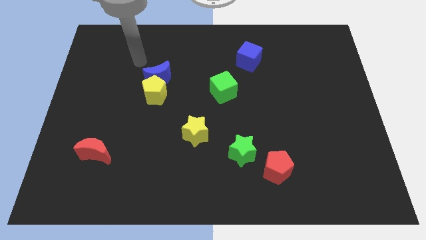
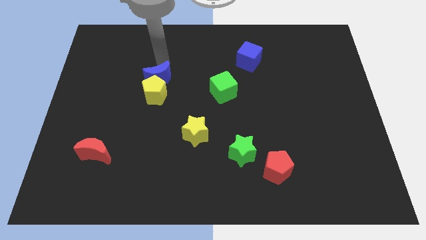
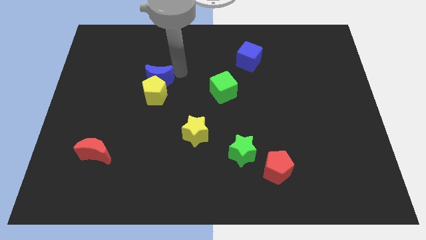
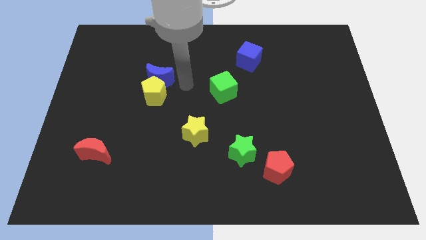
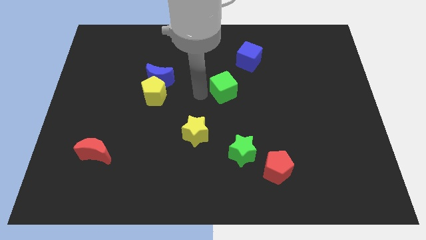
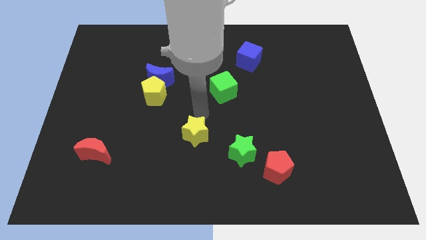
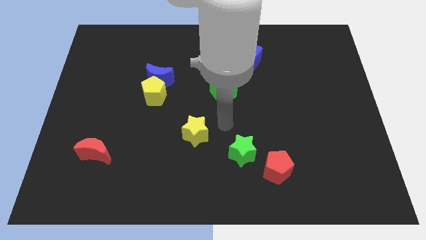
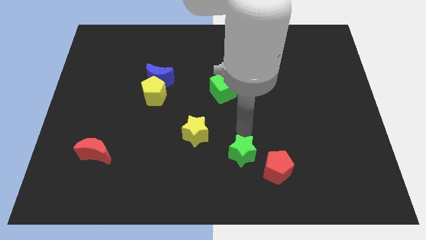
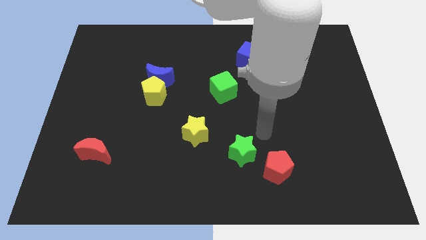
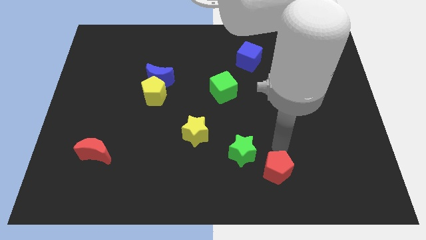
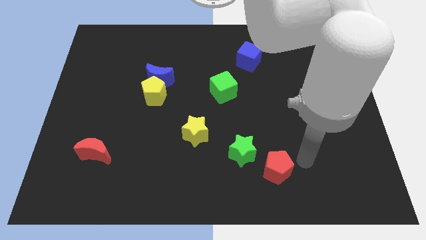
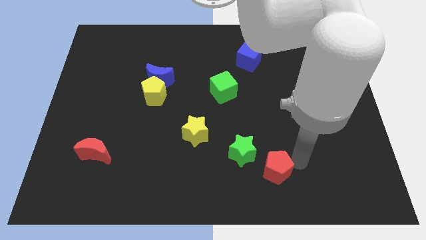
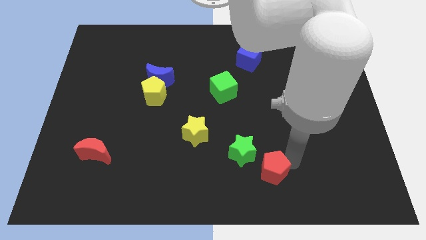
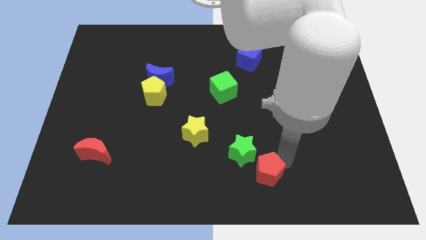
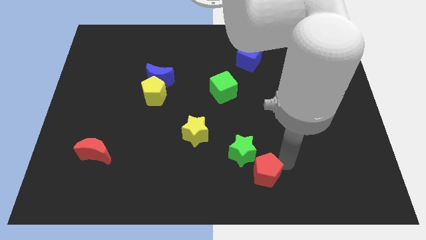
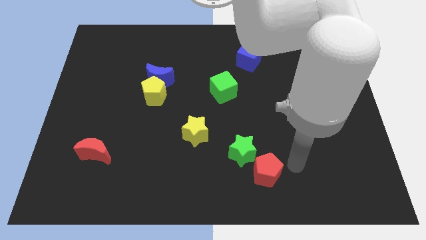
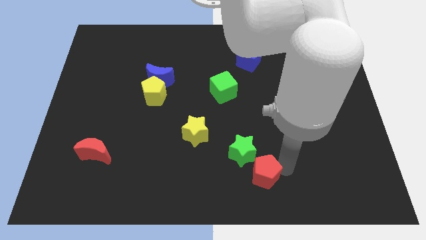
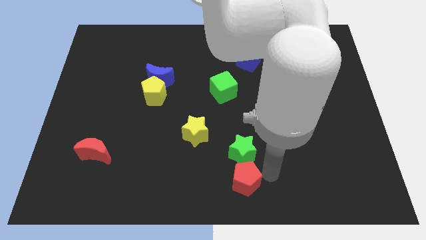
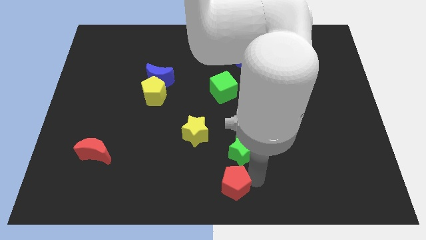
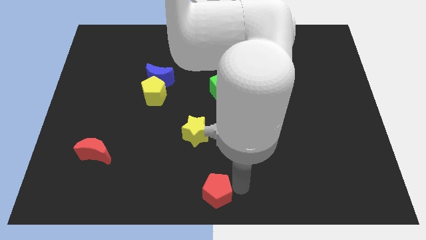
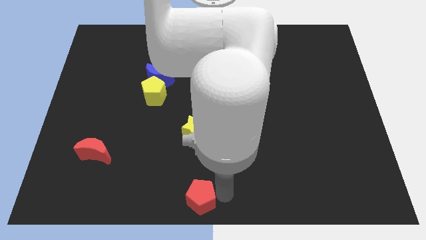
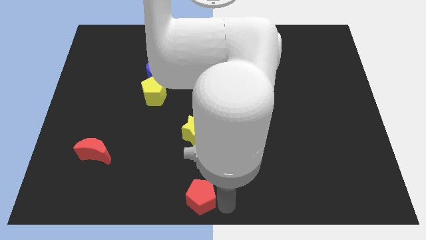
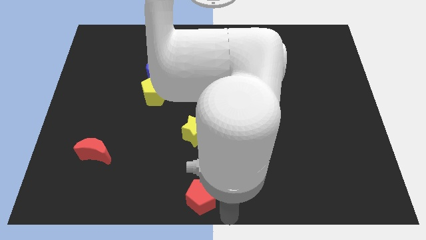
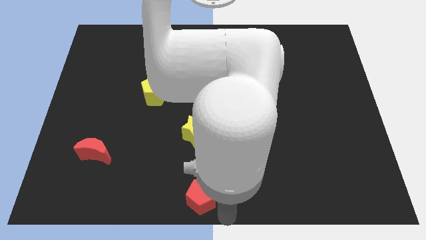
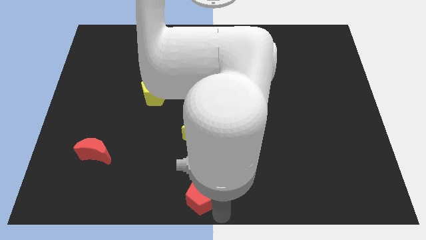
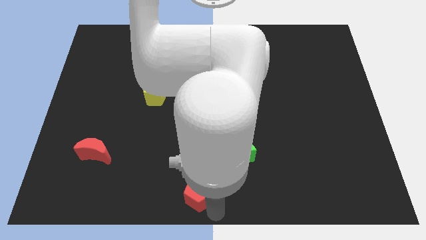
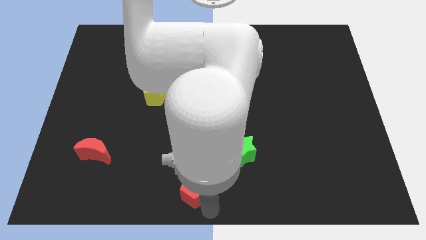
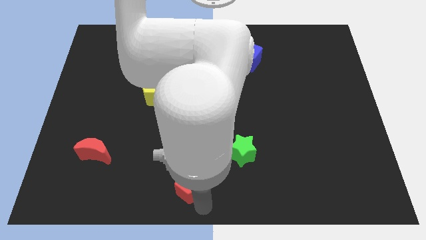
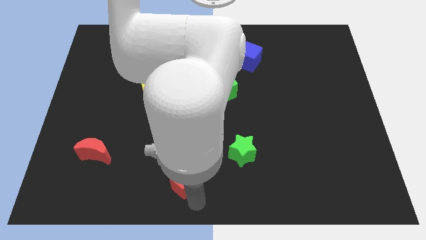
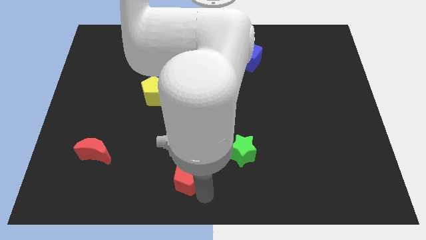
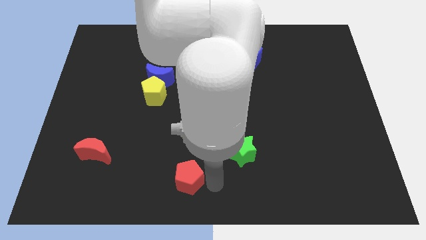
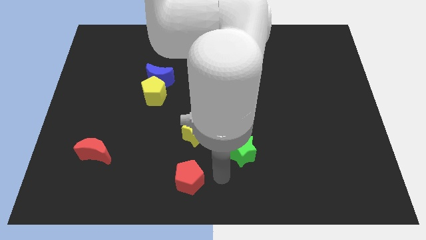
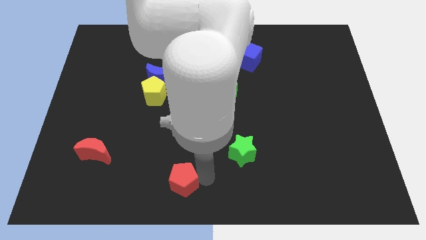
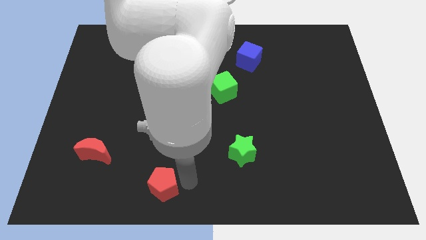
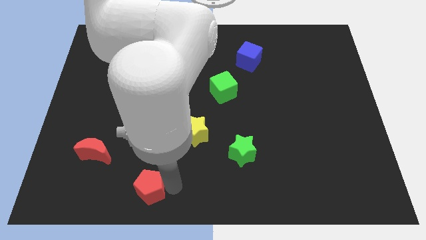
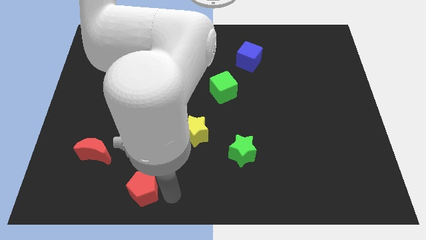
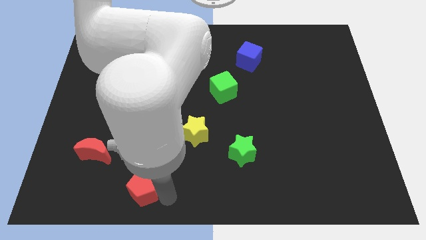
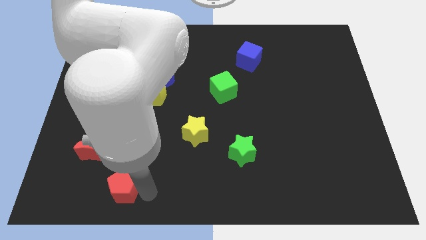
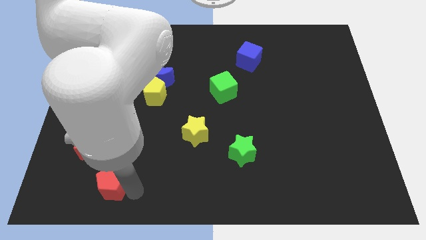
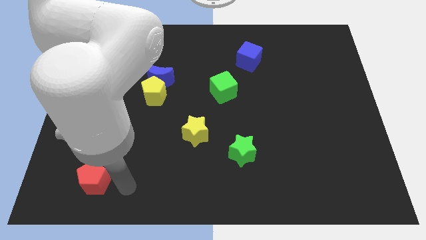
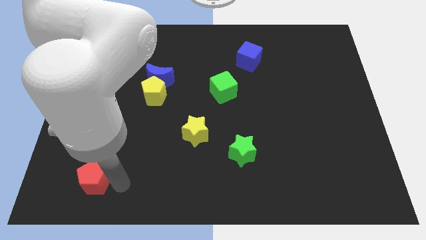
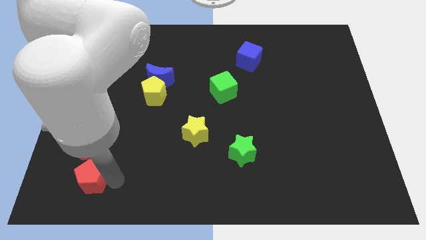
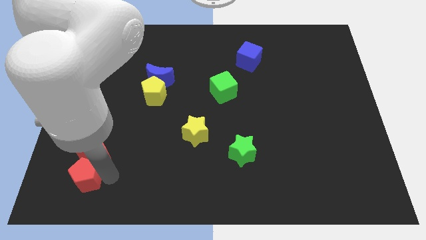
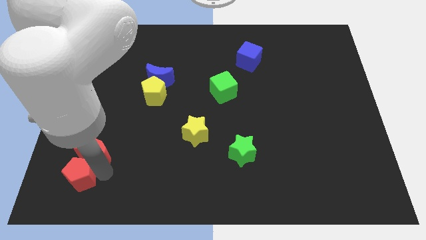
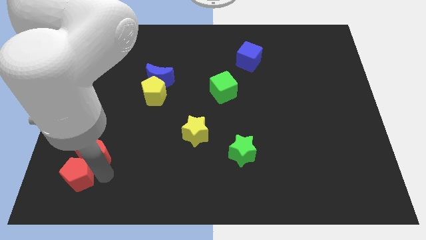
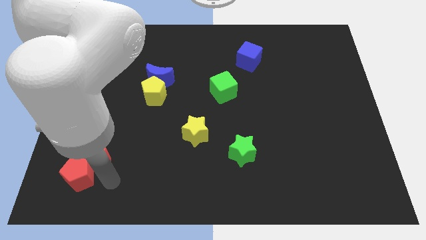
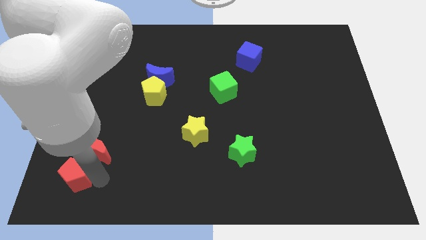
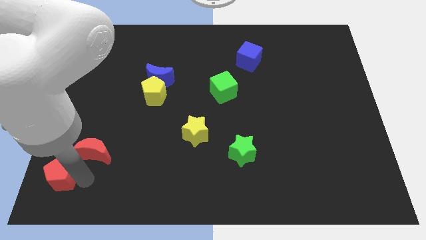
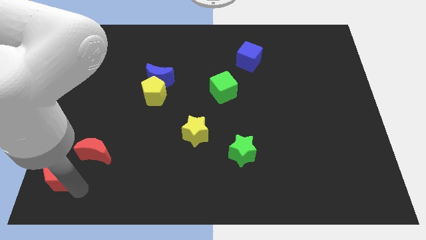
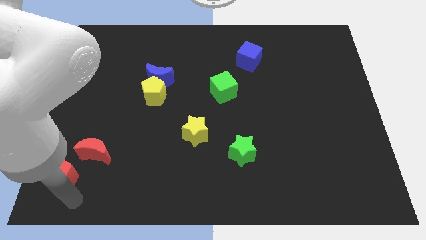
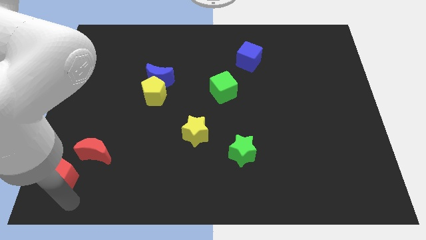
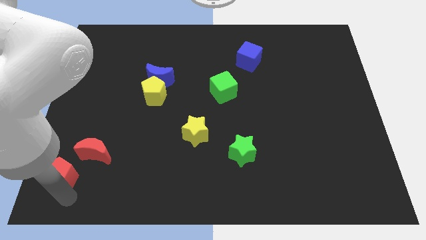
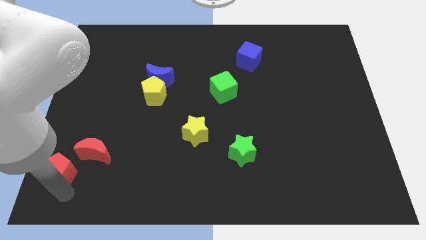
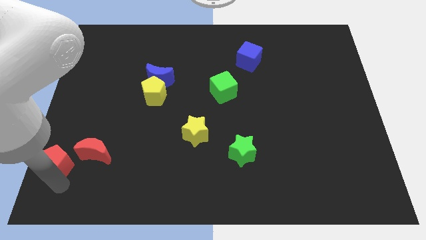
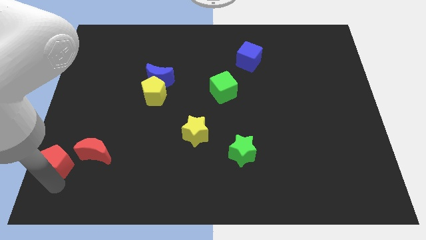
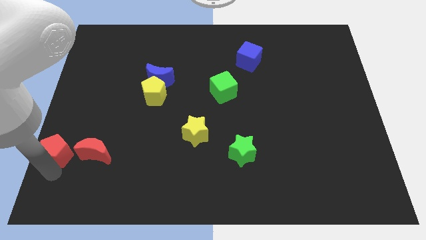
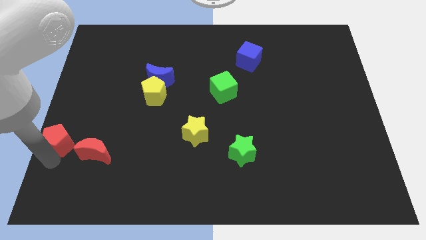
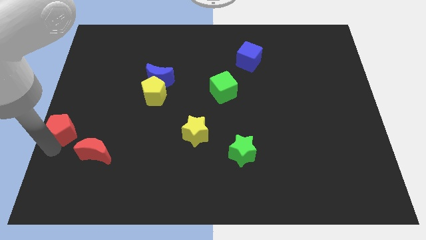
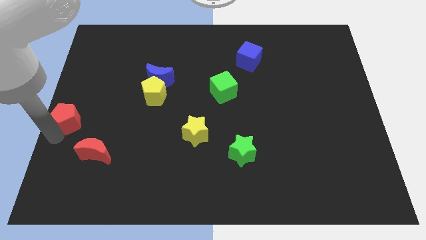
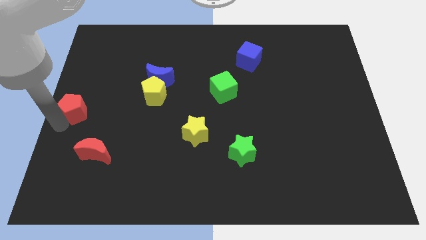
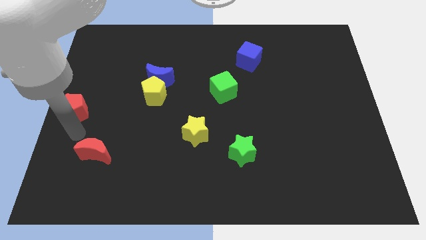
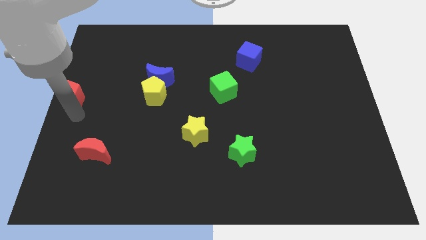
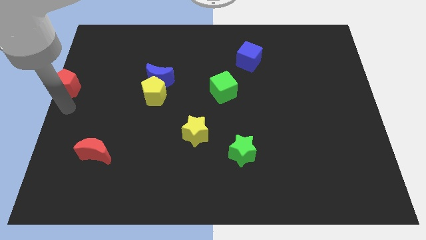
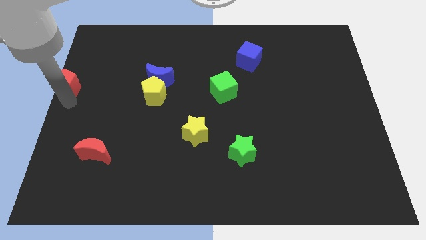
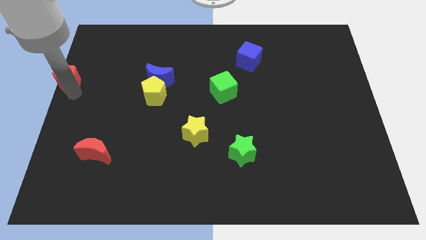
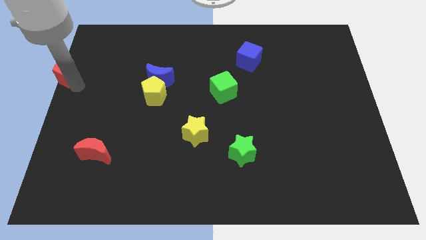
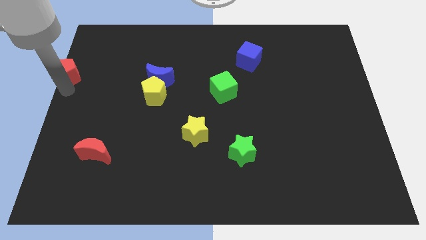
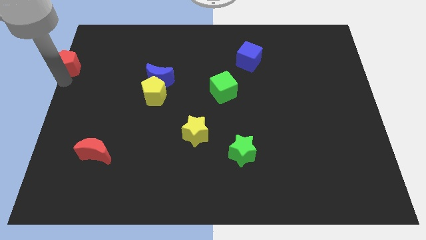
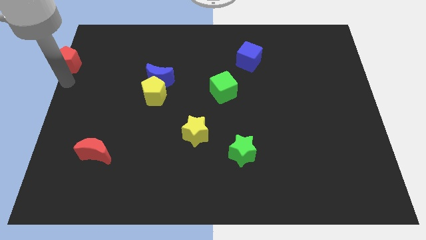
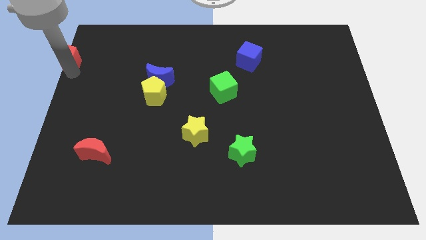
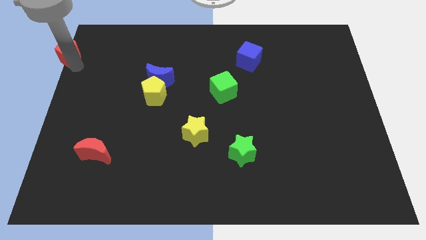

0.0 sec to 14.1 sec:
slide the red pentagon to the upper left corner
